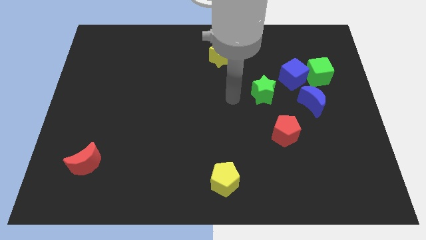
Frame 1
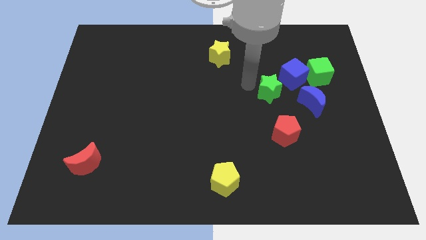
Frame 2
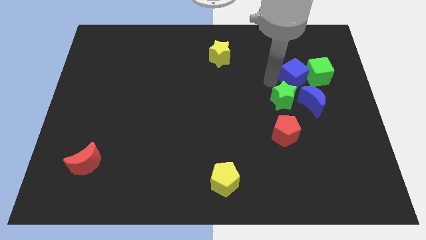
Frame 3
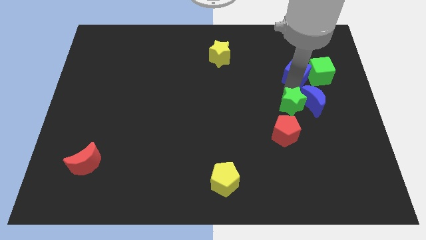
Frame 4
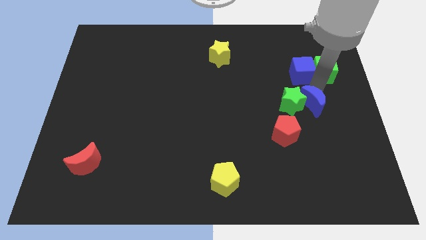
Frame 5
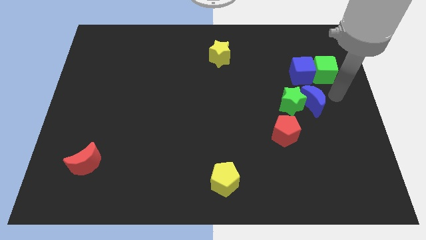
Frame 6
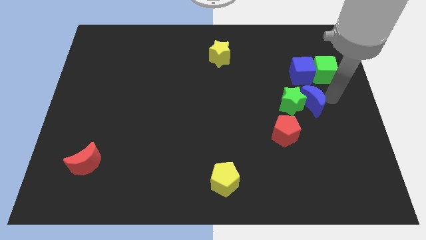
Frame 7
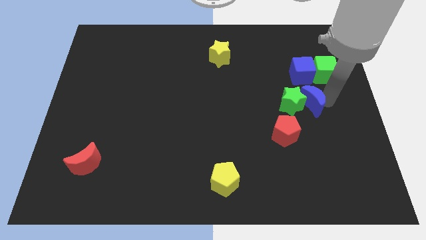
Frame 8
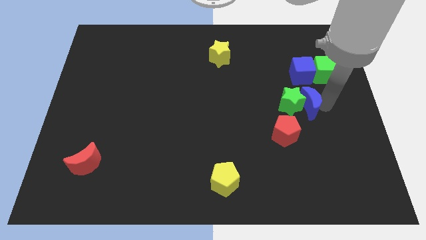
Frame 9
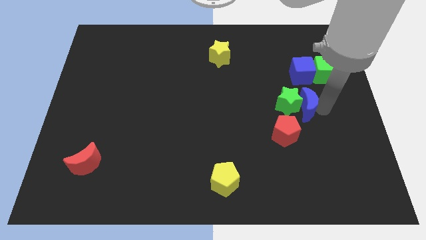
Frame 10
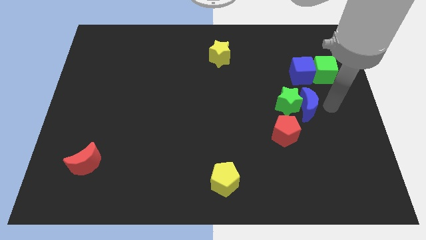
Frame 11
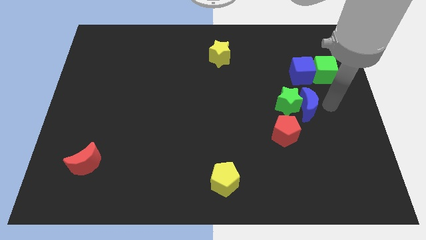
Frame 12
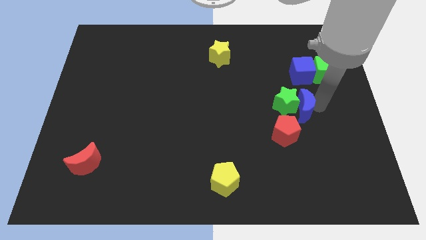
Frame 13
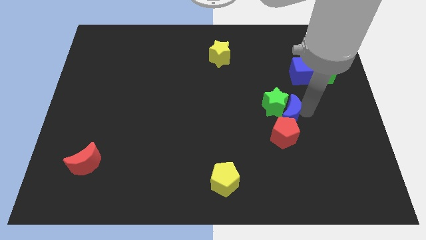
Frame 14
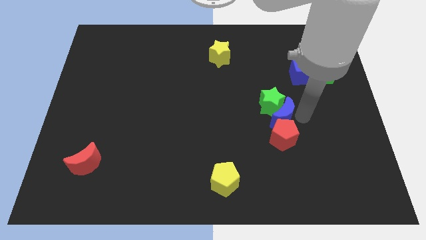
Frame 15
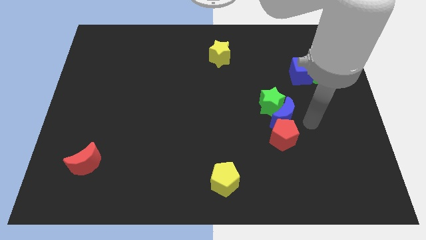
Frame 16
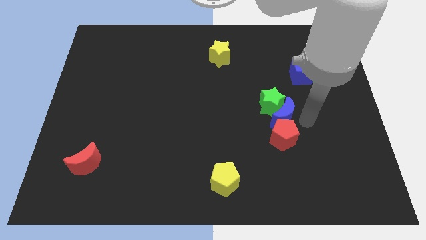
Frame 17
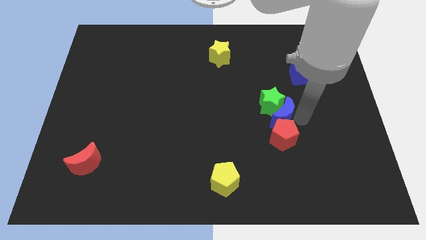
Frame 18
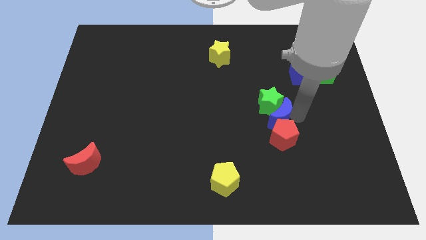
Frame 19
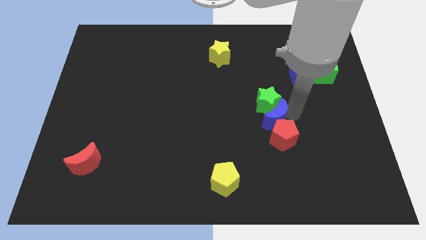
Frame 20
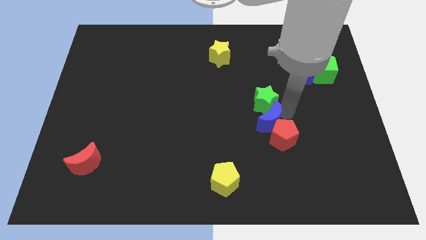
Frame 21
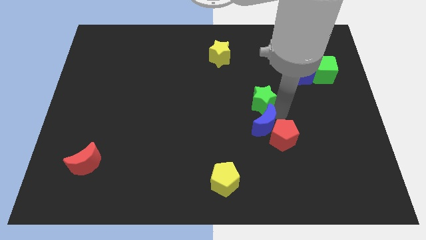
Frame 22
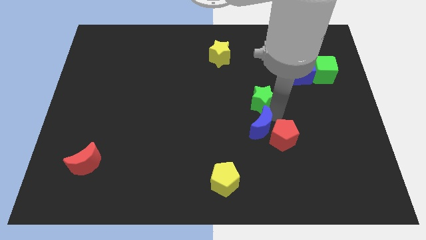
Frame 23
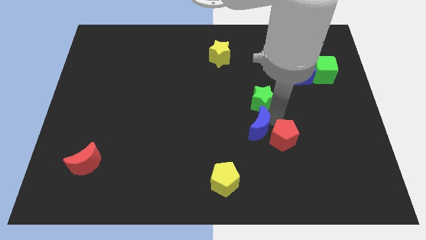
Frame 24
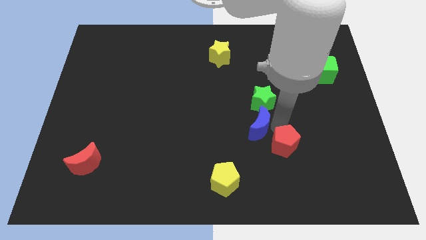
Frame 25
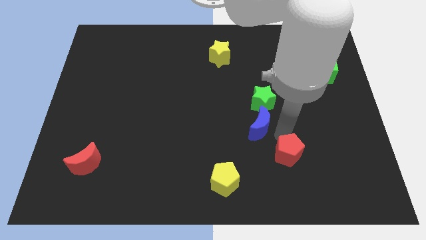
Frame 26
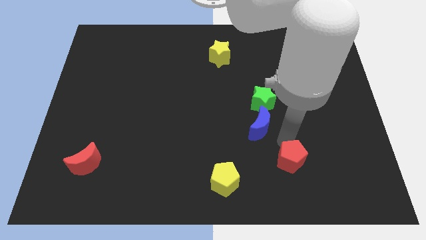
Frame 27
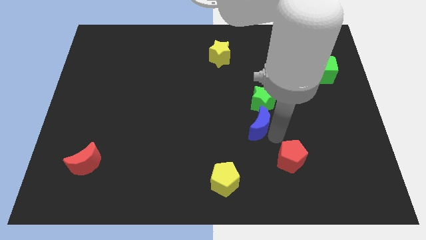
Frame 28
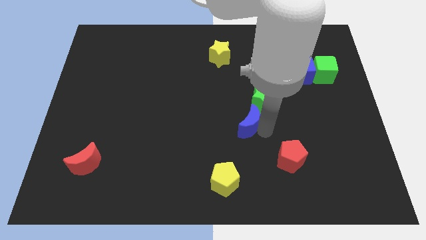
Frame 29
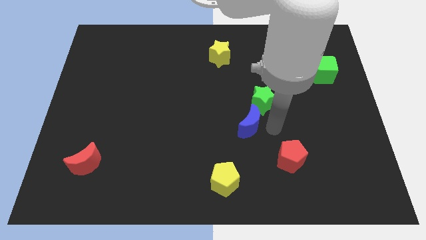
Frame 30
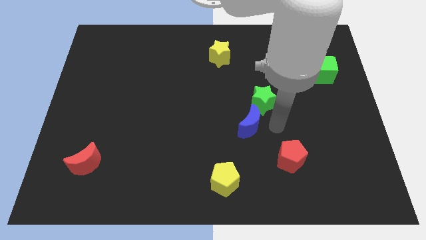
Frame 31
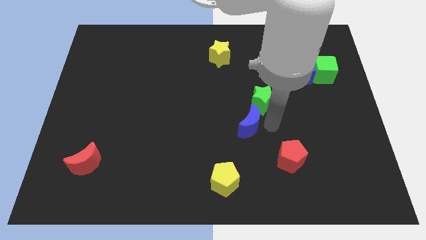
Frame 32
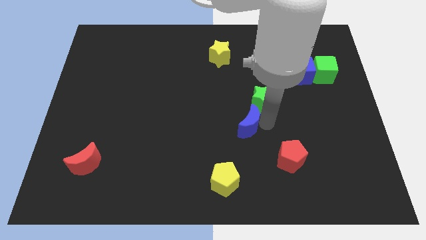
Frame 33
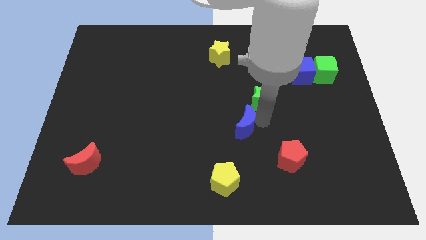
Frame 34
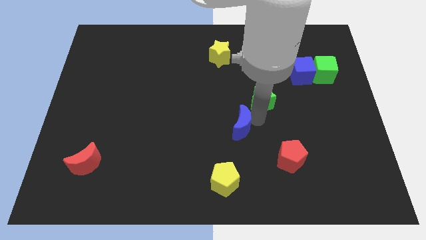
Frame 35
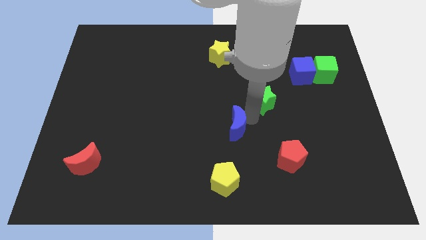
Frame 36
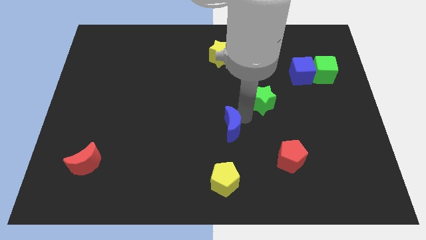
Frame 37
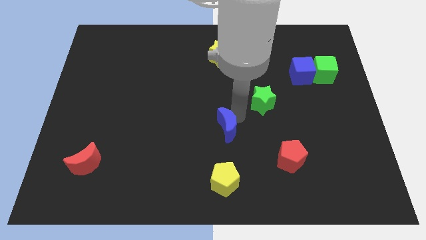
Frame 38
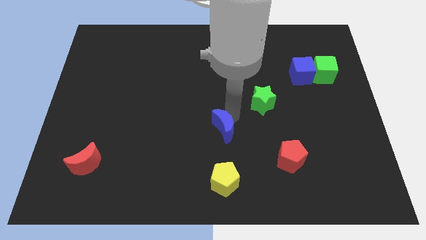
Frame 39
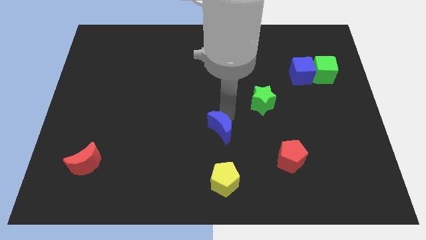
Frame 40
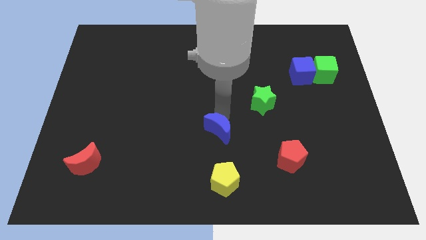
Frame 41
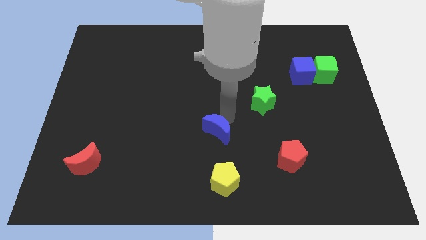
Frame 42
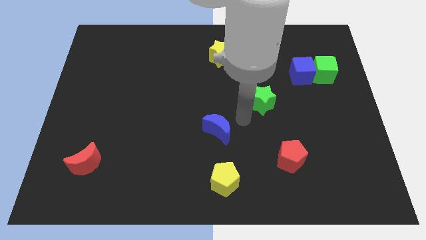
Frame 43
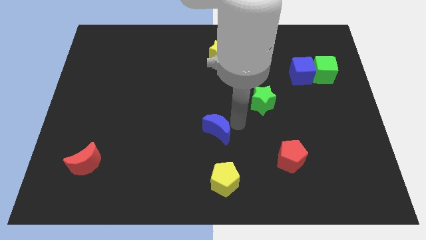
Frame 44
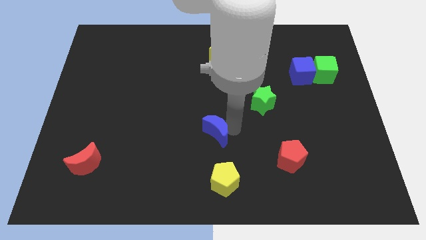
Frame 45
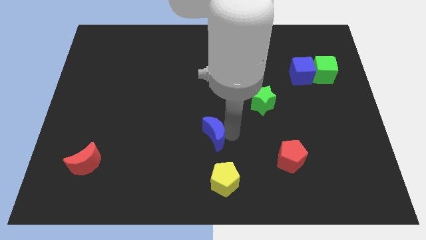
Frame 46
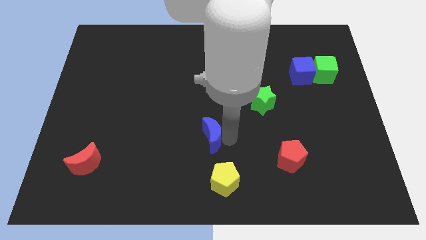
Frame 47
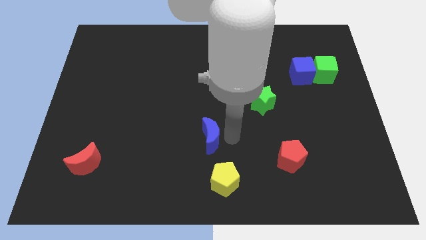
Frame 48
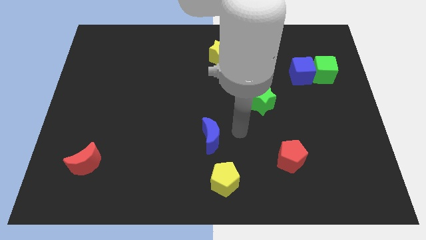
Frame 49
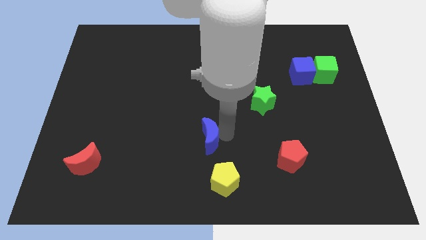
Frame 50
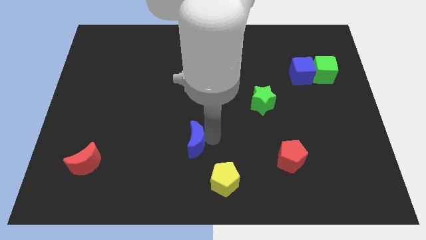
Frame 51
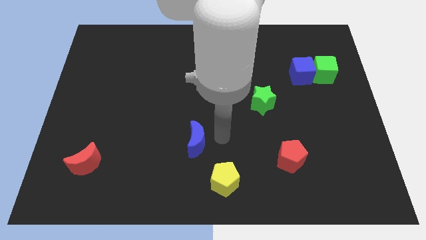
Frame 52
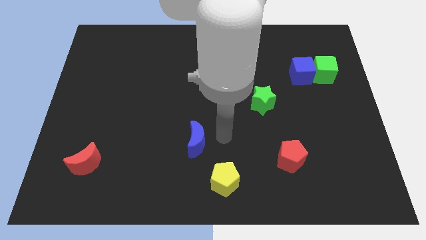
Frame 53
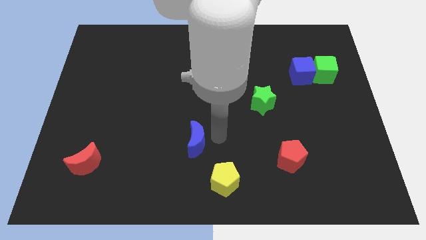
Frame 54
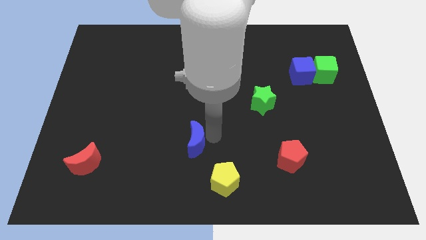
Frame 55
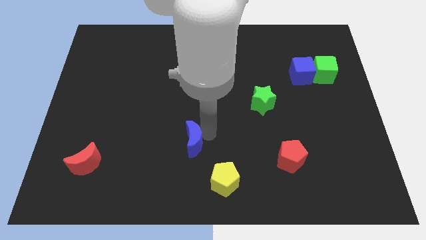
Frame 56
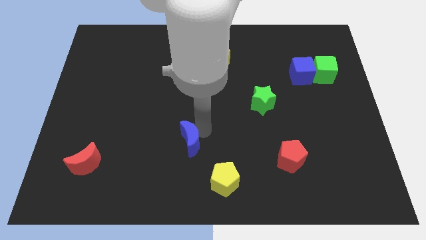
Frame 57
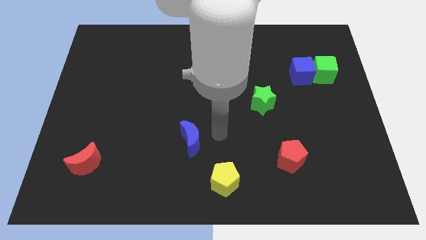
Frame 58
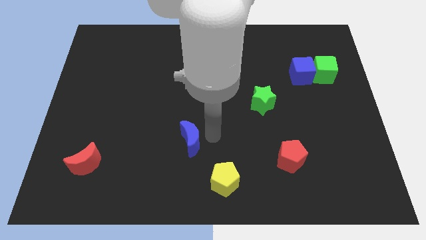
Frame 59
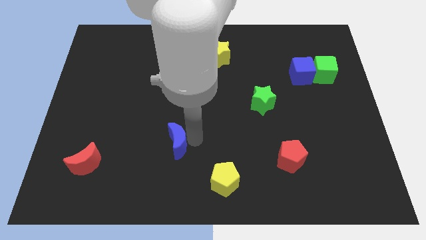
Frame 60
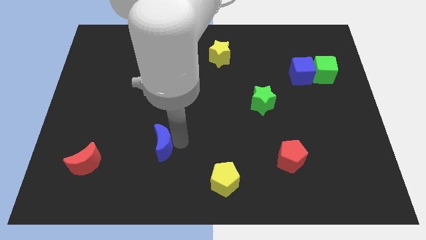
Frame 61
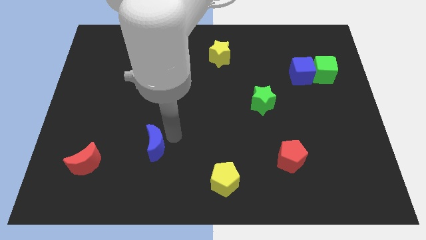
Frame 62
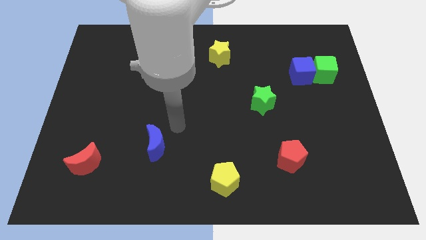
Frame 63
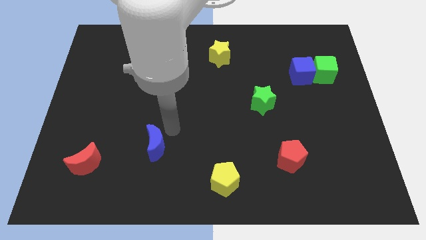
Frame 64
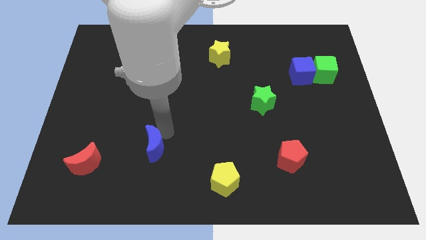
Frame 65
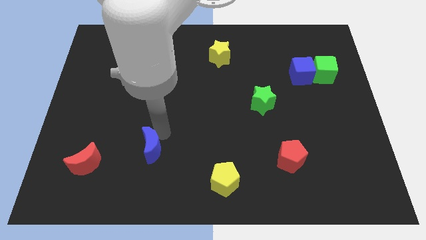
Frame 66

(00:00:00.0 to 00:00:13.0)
slide the blue moon to the right side of the red moon
